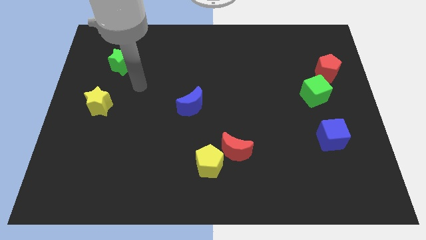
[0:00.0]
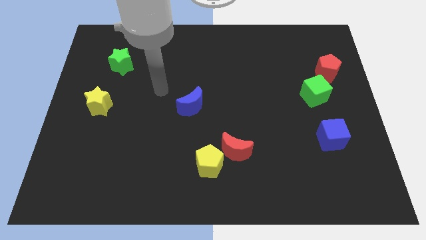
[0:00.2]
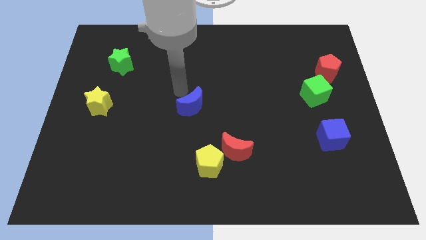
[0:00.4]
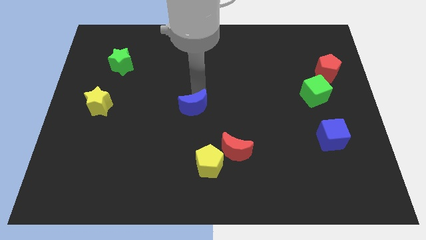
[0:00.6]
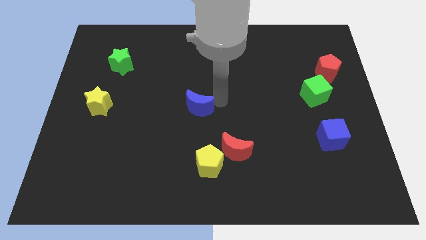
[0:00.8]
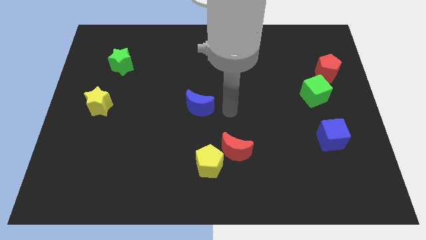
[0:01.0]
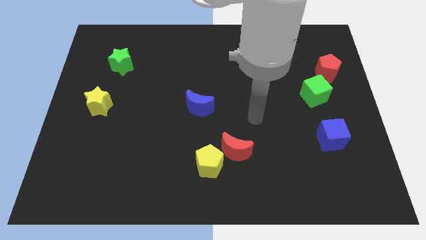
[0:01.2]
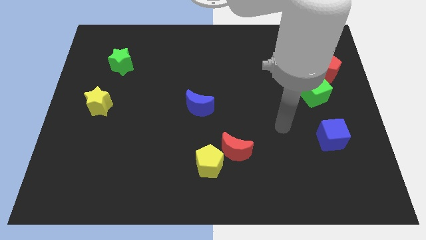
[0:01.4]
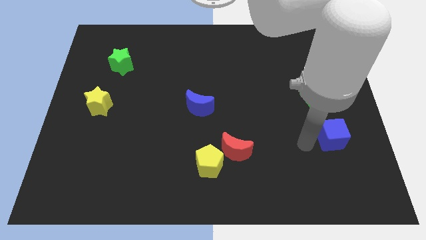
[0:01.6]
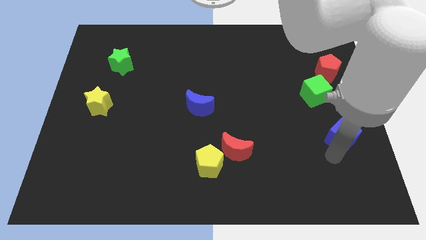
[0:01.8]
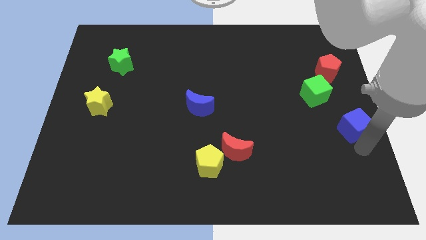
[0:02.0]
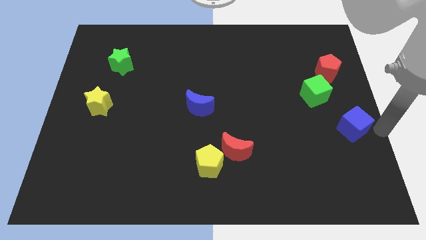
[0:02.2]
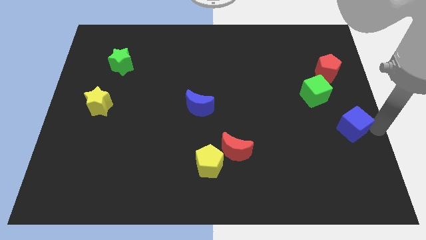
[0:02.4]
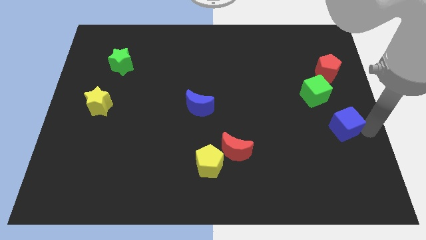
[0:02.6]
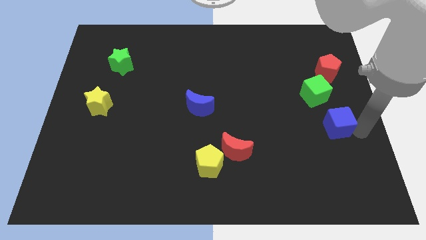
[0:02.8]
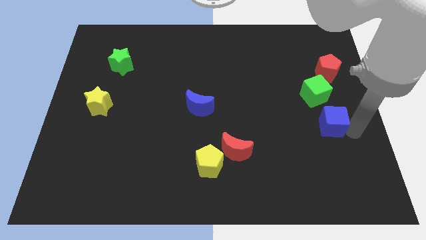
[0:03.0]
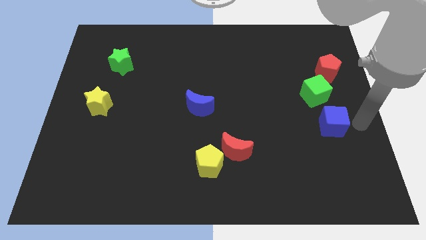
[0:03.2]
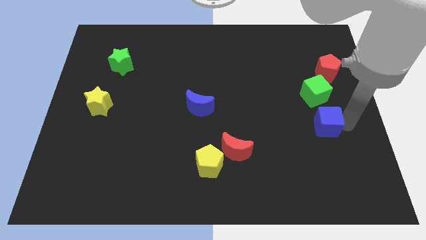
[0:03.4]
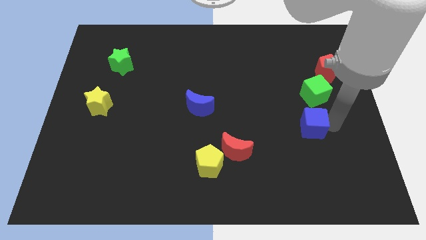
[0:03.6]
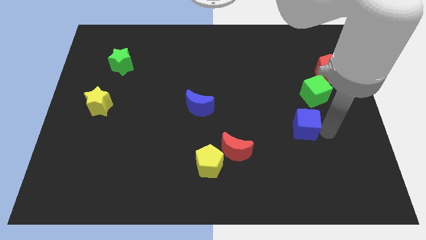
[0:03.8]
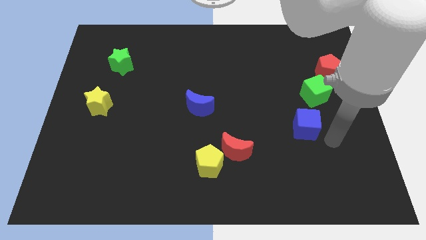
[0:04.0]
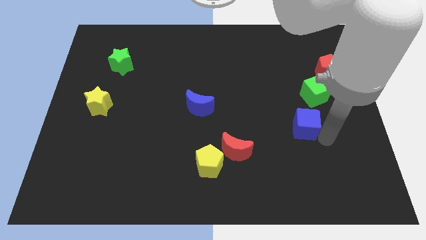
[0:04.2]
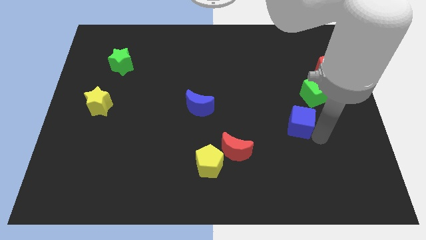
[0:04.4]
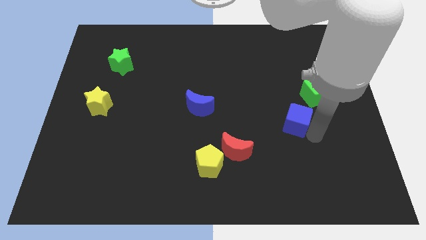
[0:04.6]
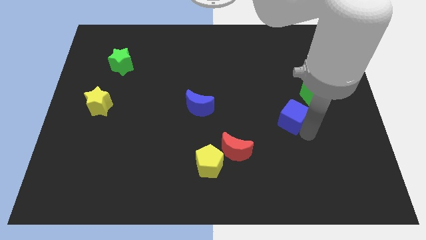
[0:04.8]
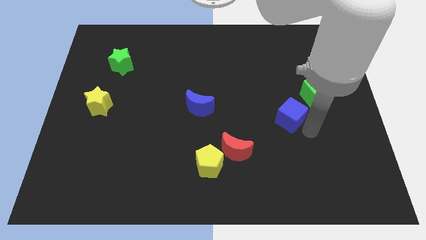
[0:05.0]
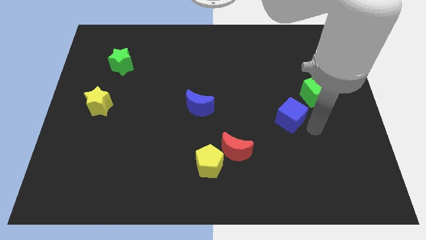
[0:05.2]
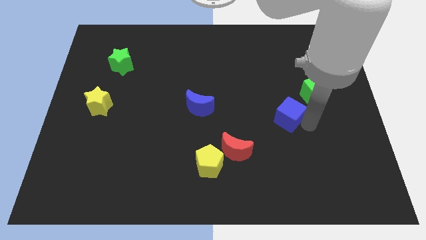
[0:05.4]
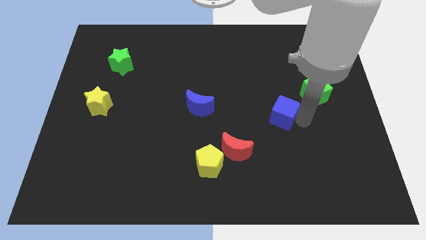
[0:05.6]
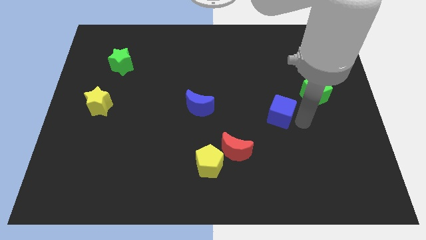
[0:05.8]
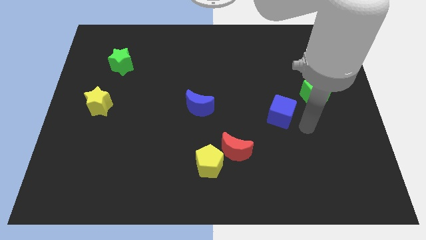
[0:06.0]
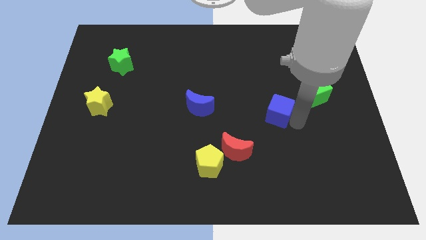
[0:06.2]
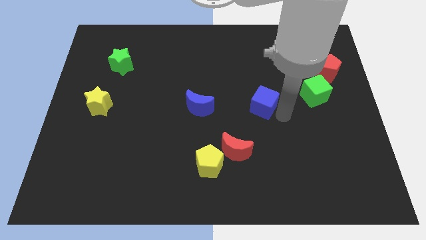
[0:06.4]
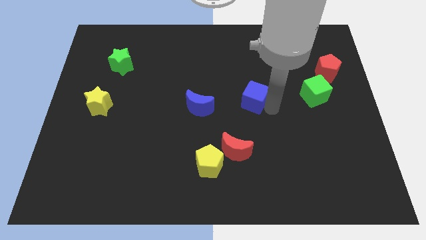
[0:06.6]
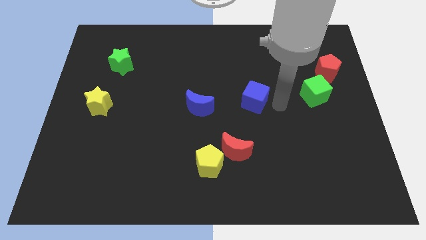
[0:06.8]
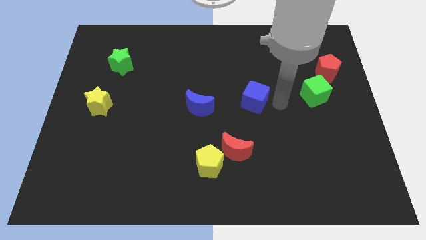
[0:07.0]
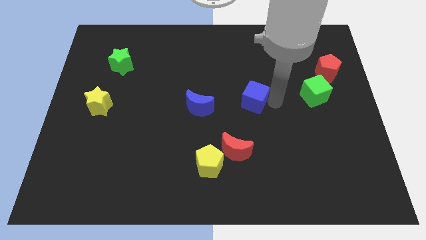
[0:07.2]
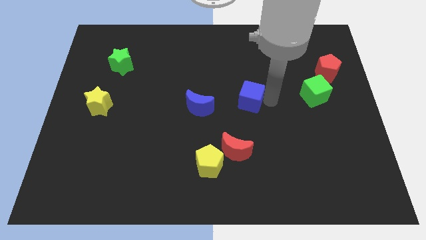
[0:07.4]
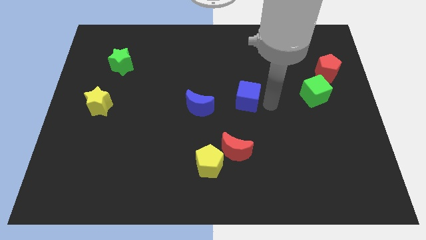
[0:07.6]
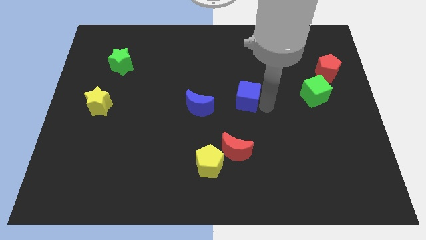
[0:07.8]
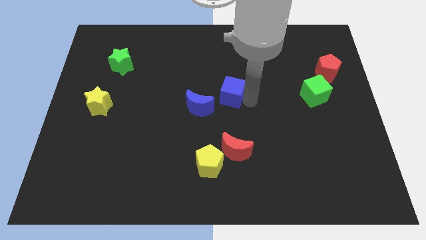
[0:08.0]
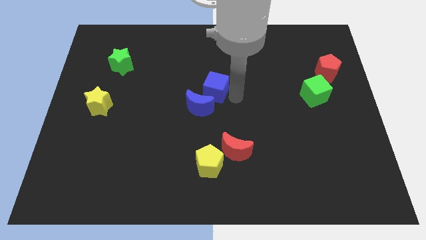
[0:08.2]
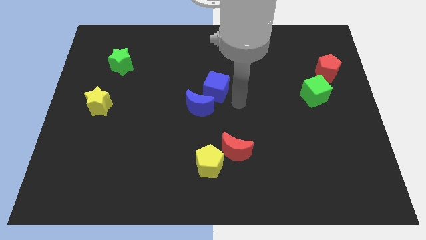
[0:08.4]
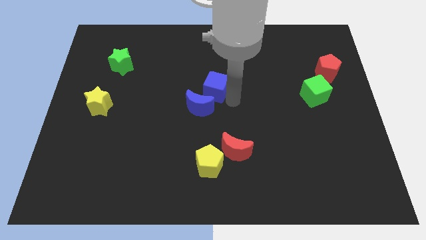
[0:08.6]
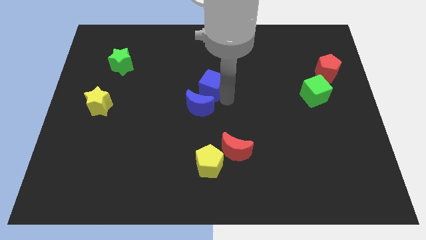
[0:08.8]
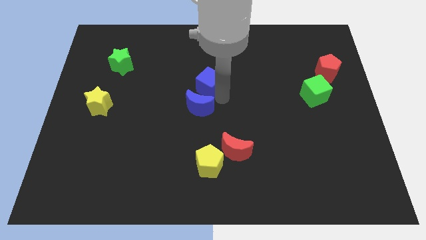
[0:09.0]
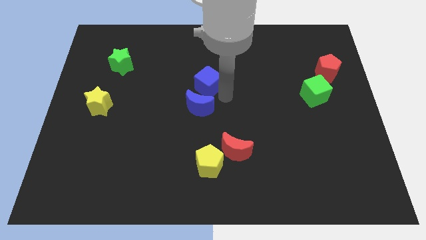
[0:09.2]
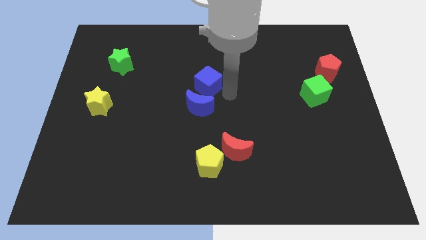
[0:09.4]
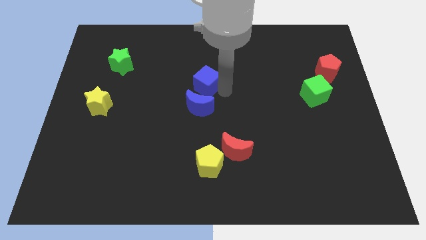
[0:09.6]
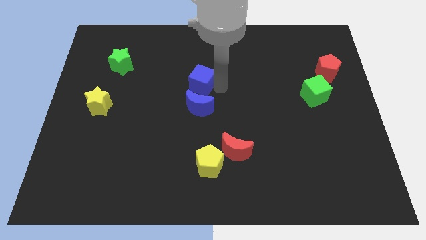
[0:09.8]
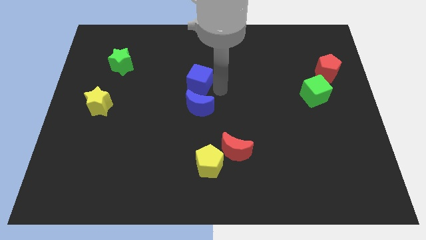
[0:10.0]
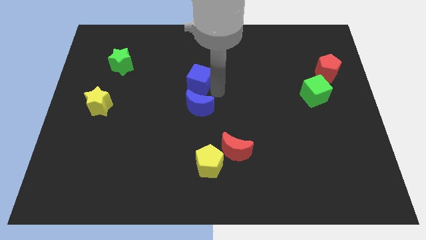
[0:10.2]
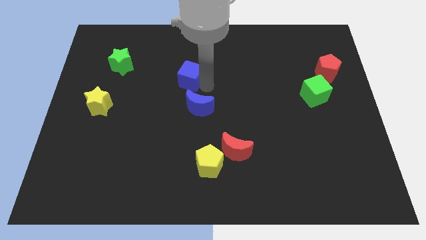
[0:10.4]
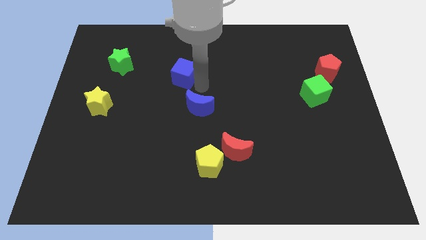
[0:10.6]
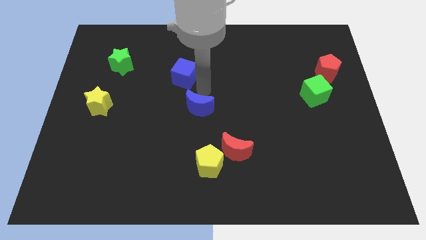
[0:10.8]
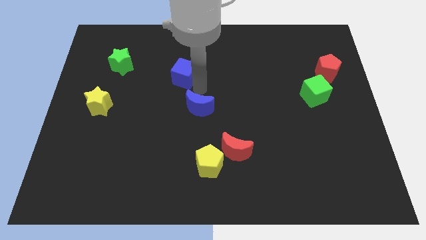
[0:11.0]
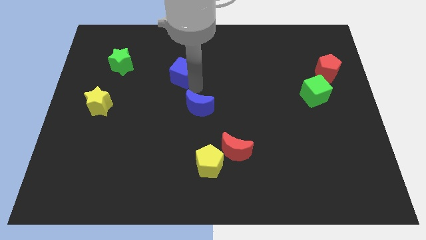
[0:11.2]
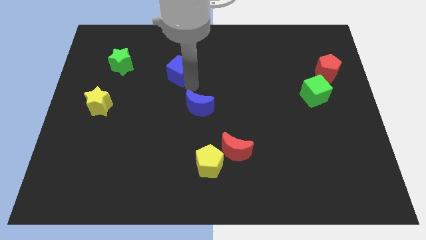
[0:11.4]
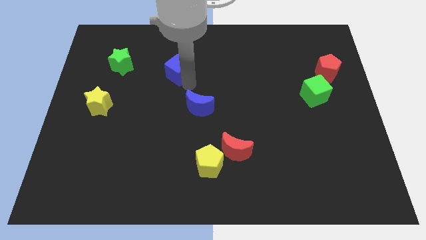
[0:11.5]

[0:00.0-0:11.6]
push the blue cube to the right of the green star
